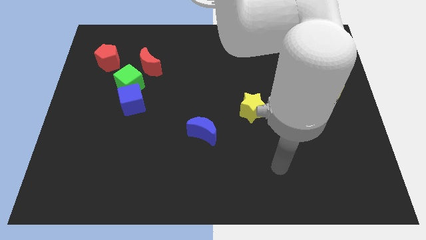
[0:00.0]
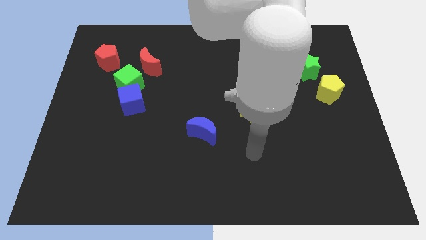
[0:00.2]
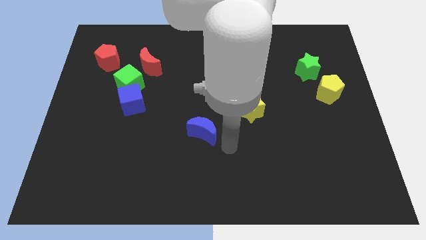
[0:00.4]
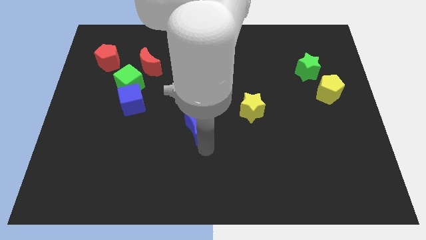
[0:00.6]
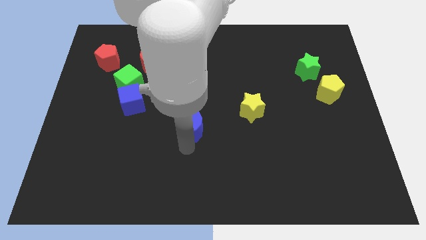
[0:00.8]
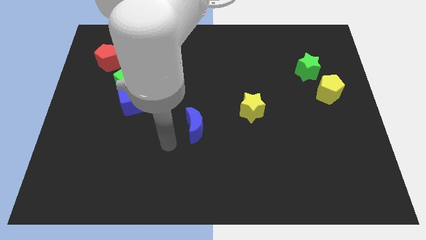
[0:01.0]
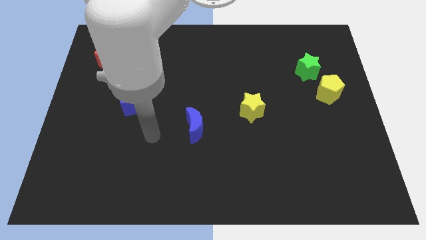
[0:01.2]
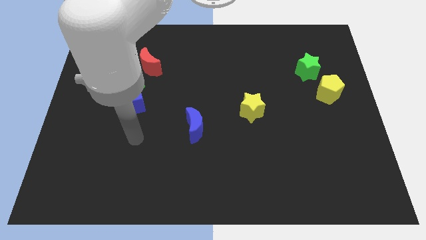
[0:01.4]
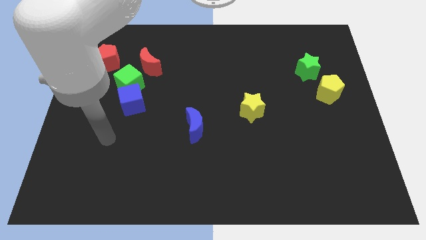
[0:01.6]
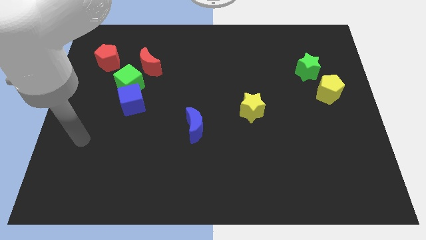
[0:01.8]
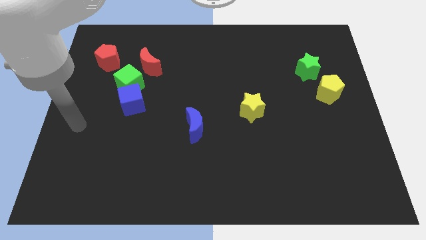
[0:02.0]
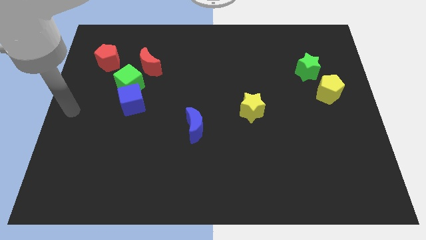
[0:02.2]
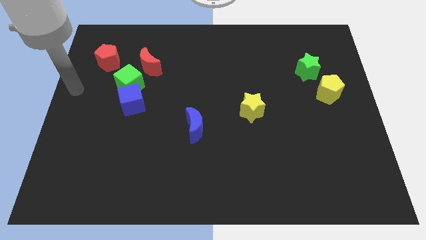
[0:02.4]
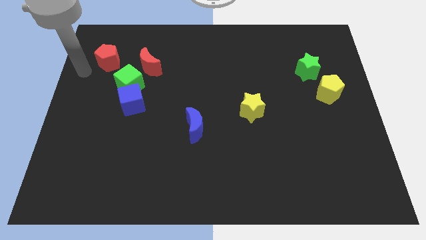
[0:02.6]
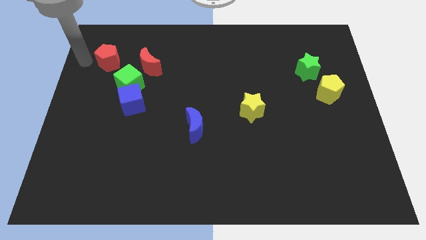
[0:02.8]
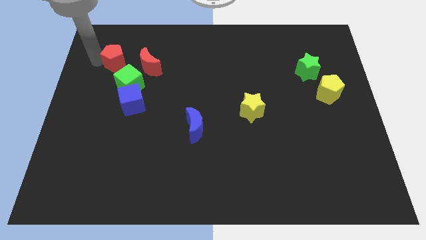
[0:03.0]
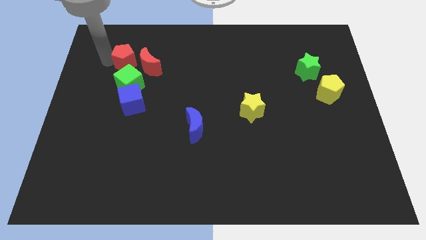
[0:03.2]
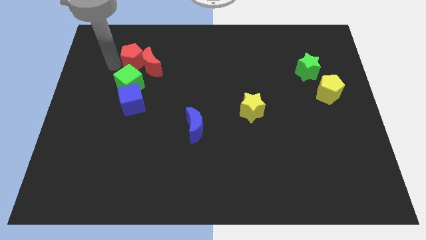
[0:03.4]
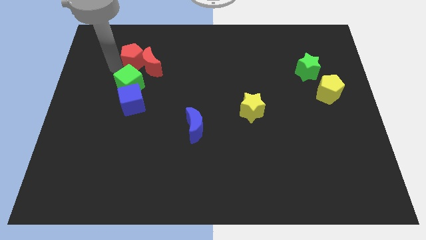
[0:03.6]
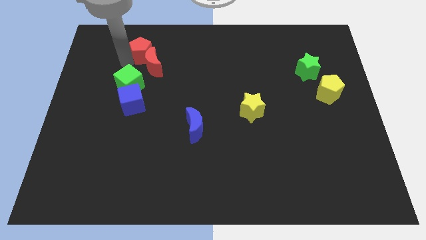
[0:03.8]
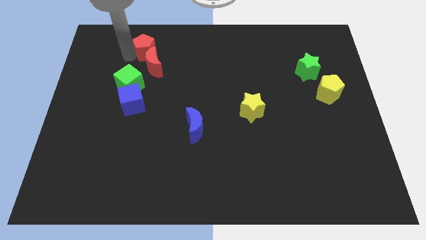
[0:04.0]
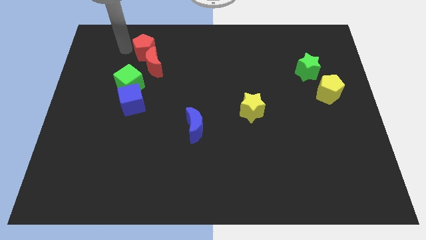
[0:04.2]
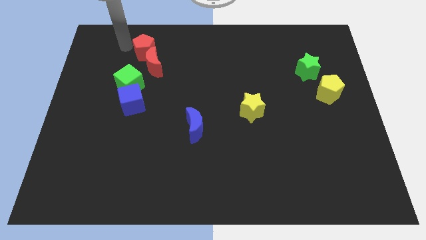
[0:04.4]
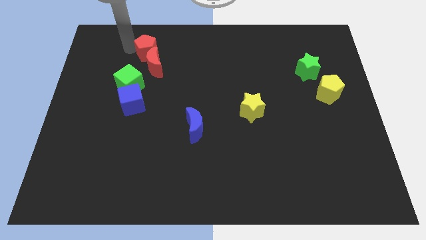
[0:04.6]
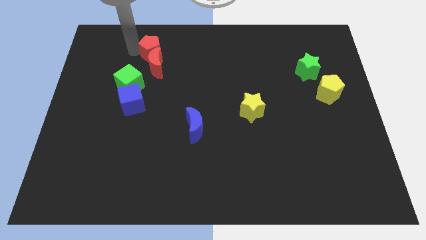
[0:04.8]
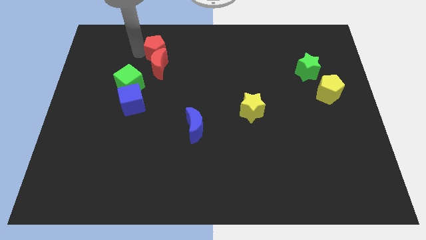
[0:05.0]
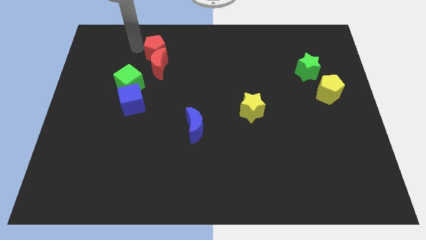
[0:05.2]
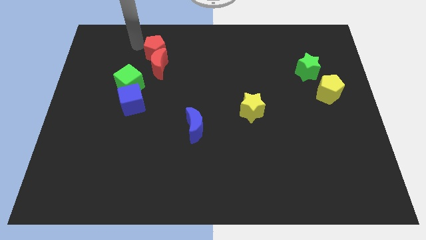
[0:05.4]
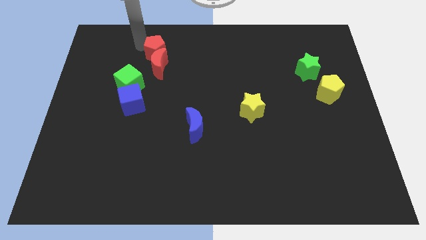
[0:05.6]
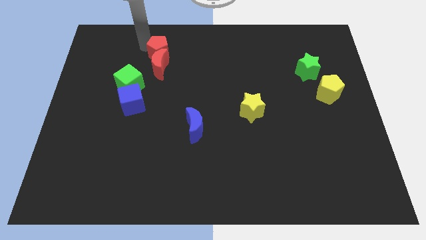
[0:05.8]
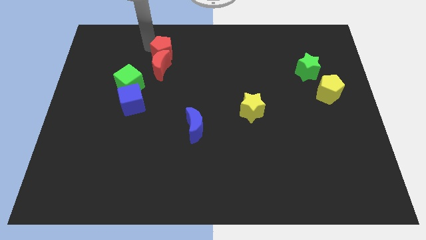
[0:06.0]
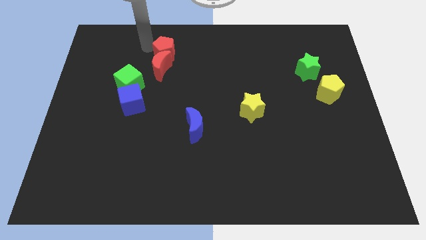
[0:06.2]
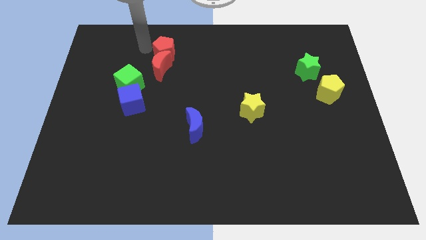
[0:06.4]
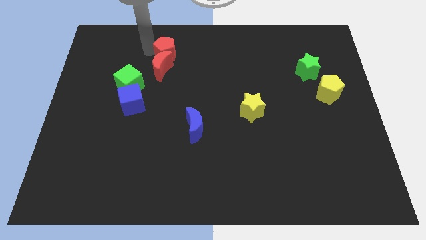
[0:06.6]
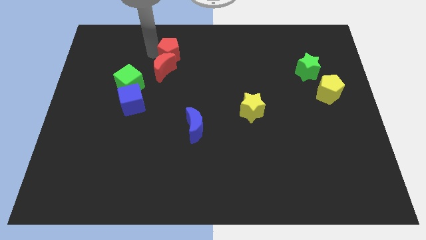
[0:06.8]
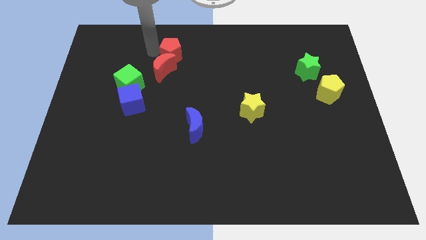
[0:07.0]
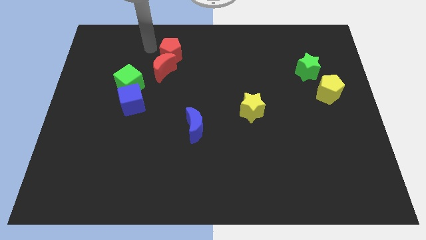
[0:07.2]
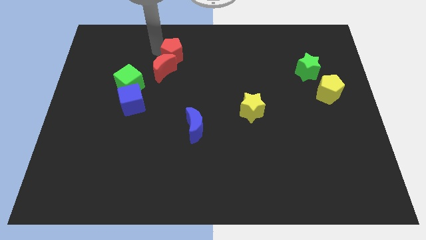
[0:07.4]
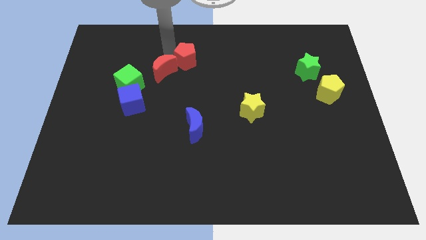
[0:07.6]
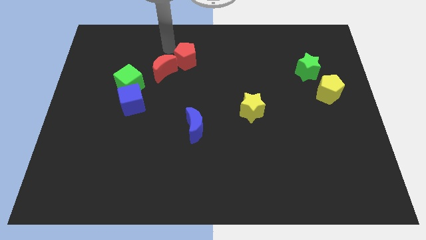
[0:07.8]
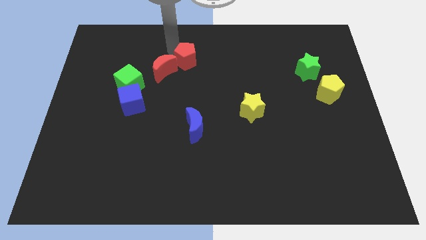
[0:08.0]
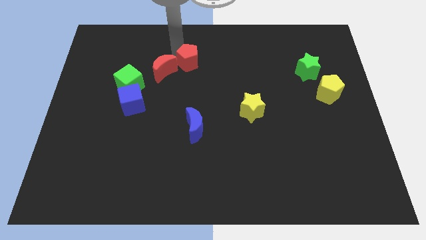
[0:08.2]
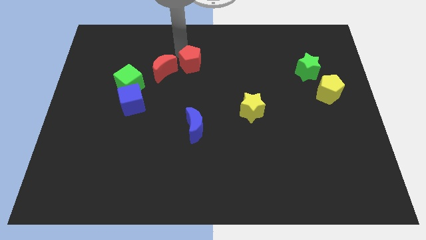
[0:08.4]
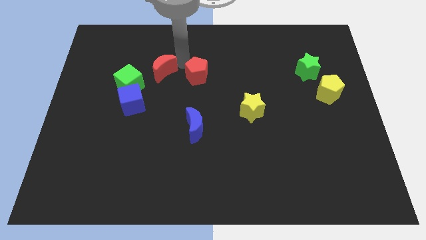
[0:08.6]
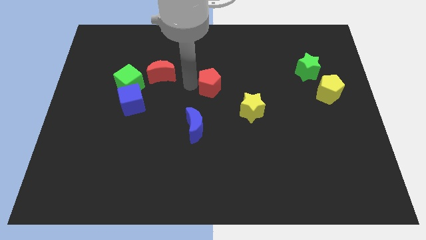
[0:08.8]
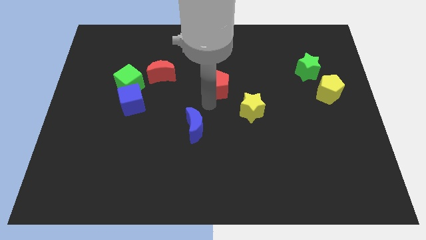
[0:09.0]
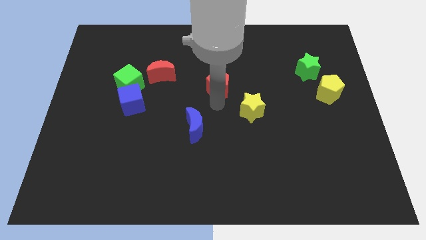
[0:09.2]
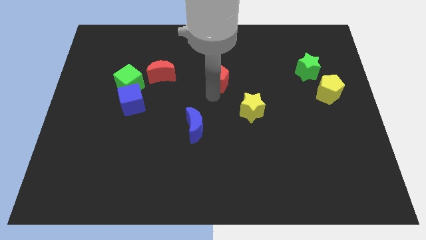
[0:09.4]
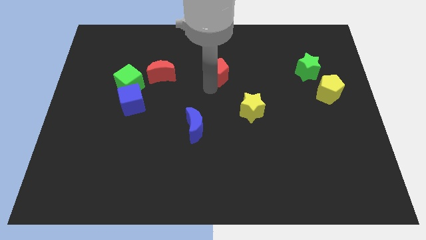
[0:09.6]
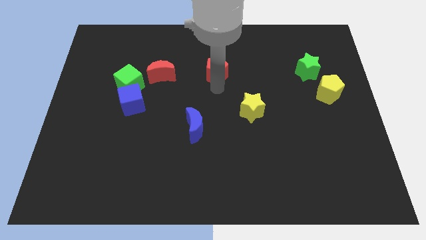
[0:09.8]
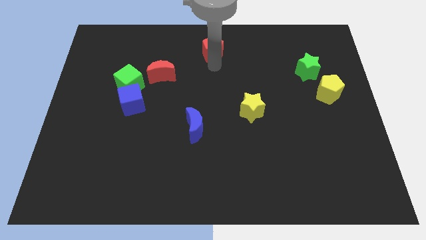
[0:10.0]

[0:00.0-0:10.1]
slide the red pentagon to the towards your base

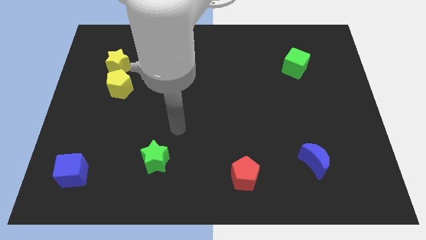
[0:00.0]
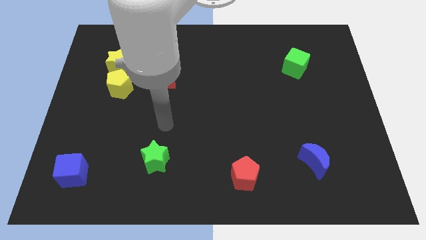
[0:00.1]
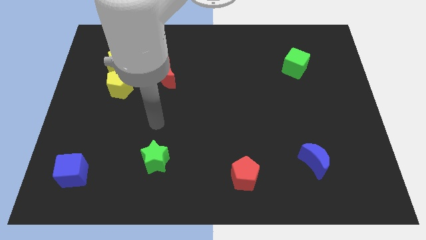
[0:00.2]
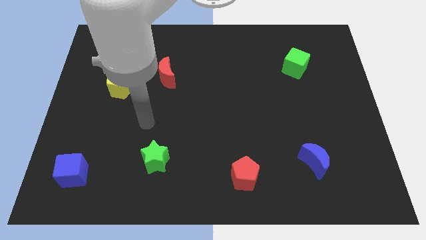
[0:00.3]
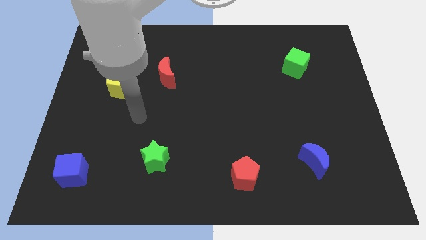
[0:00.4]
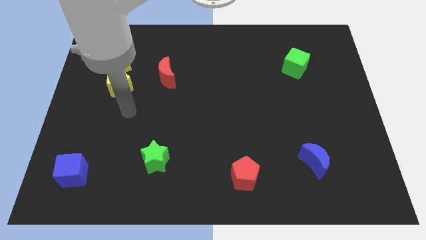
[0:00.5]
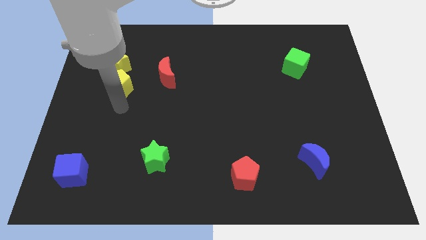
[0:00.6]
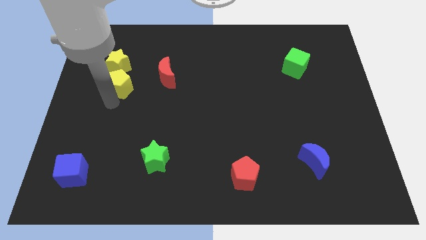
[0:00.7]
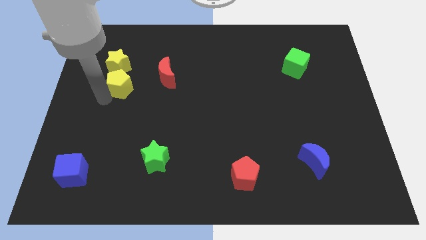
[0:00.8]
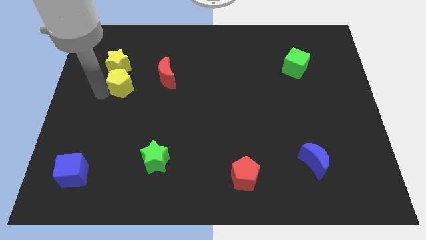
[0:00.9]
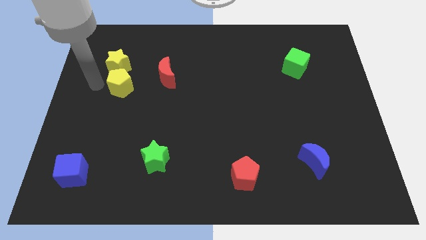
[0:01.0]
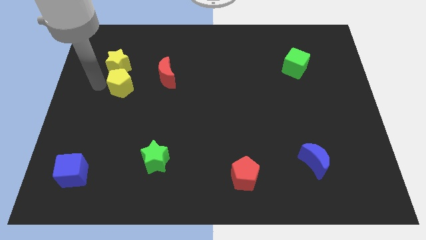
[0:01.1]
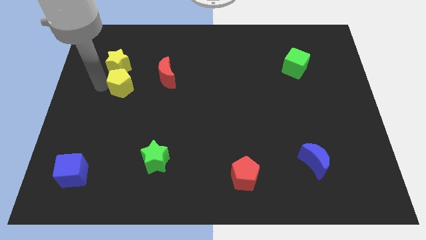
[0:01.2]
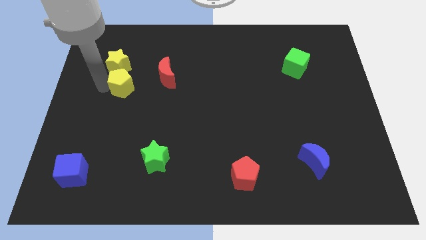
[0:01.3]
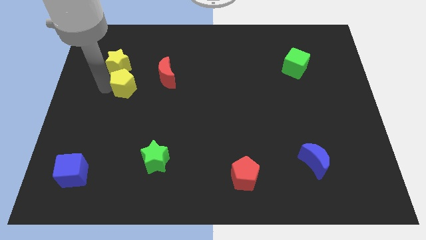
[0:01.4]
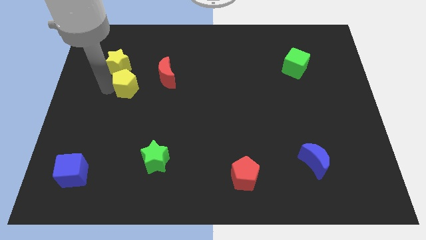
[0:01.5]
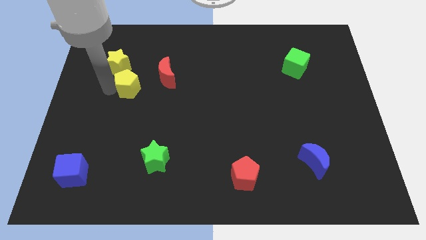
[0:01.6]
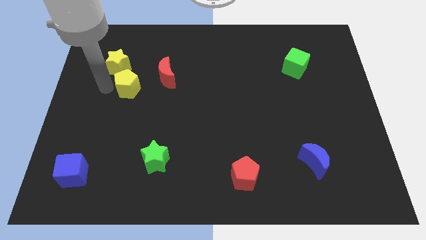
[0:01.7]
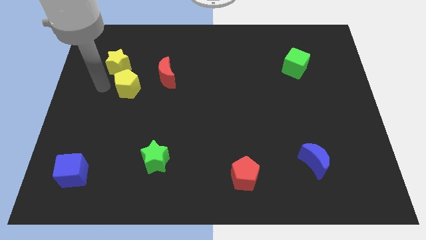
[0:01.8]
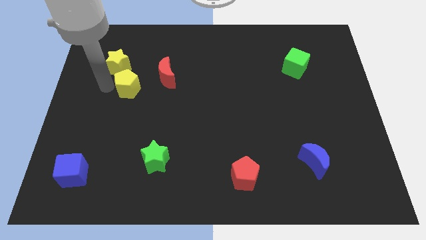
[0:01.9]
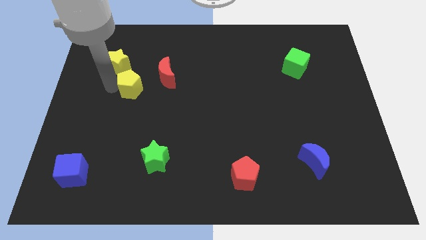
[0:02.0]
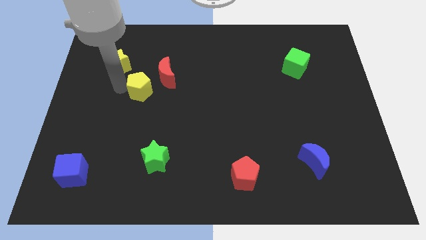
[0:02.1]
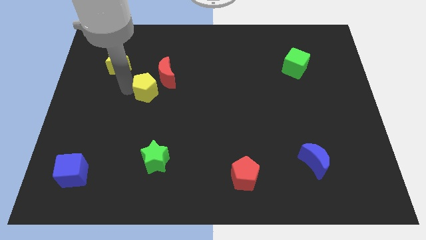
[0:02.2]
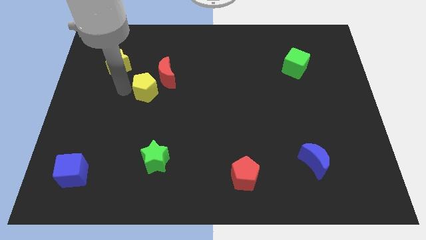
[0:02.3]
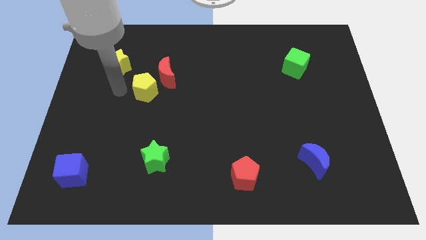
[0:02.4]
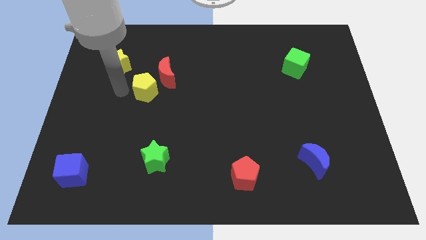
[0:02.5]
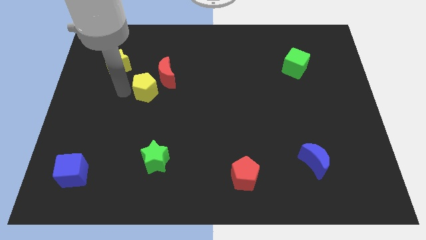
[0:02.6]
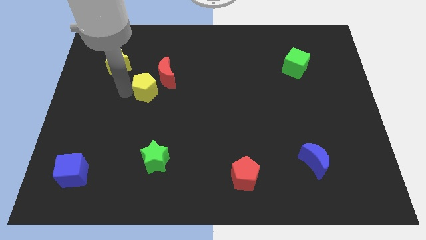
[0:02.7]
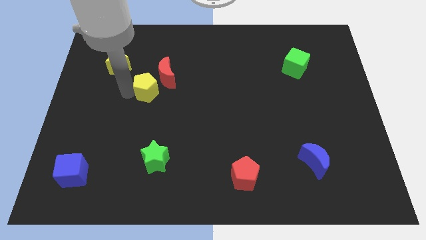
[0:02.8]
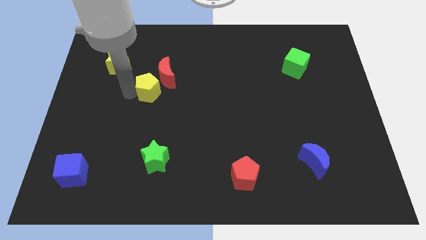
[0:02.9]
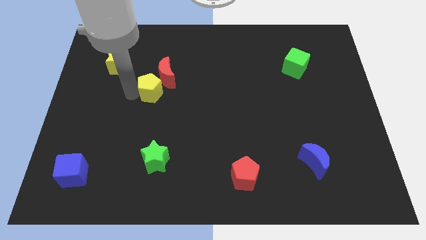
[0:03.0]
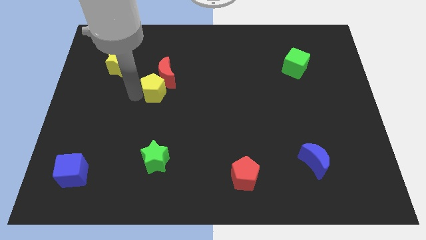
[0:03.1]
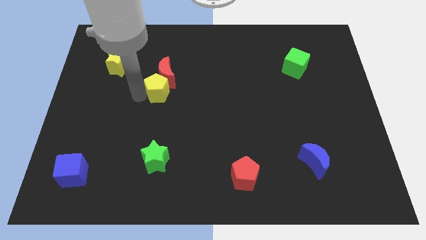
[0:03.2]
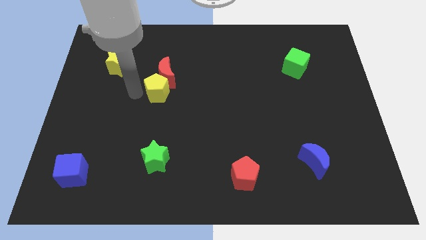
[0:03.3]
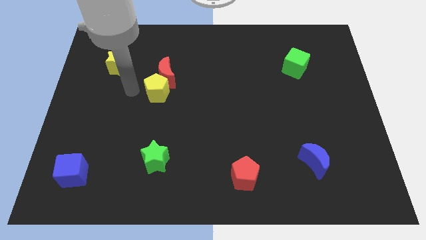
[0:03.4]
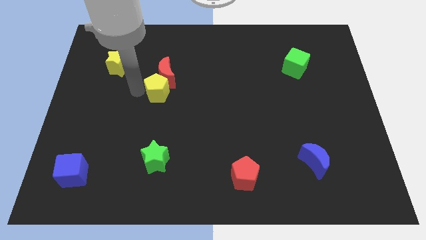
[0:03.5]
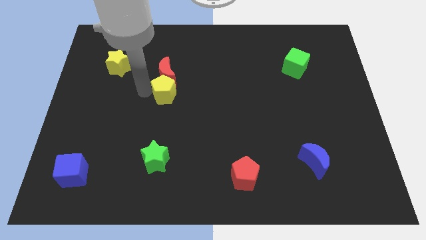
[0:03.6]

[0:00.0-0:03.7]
push the yellow pentagon to the center
